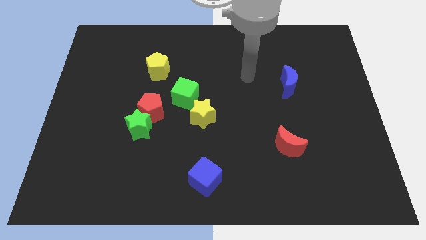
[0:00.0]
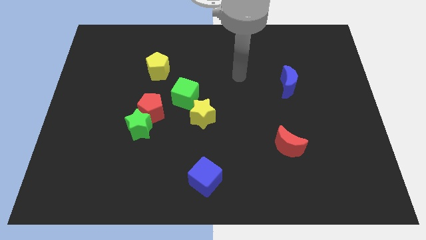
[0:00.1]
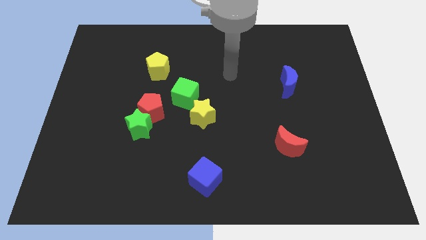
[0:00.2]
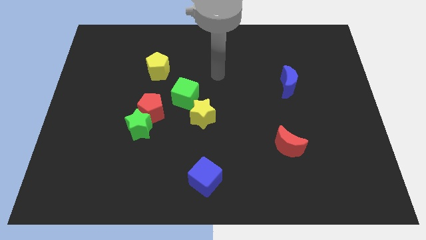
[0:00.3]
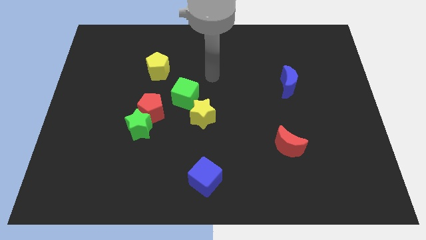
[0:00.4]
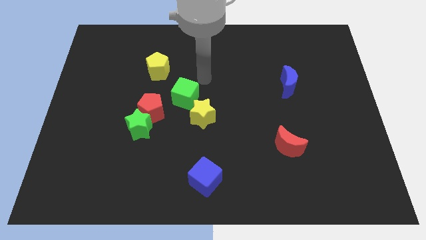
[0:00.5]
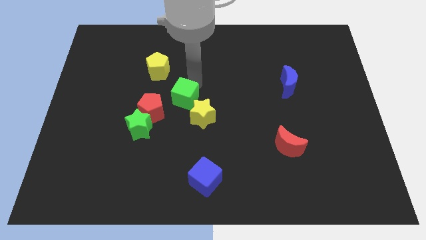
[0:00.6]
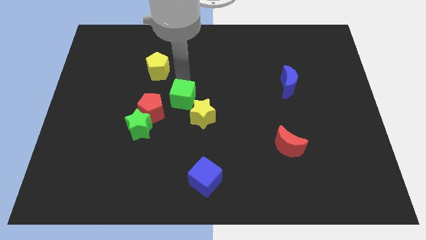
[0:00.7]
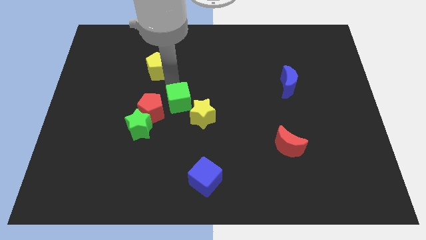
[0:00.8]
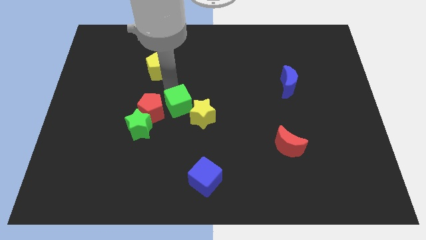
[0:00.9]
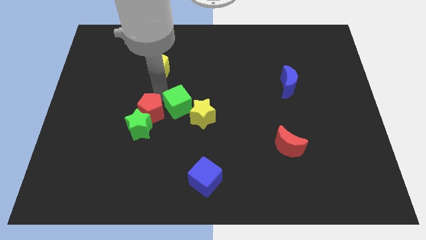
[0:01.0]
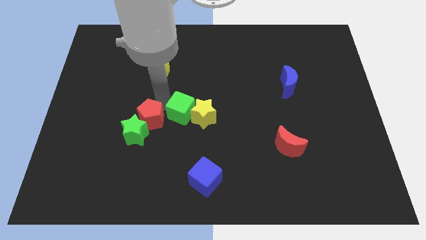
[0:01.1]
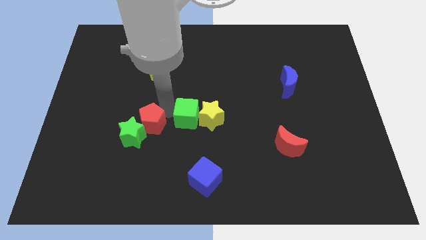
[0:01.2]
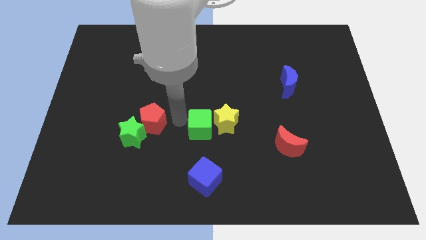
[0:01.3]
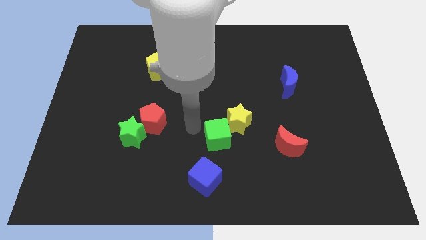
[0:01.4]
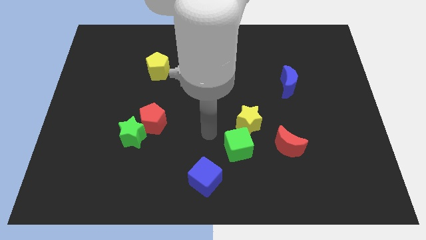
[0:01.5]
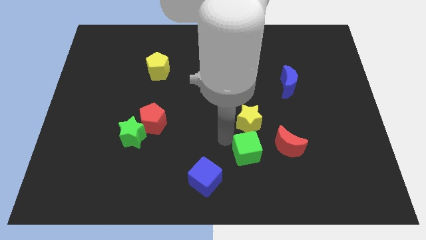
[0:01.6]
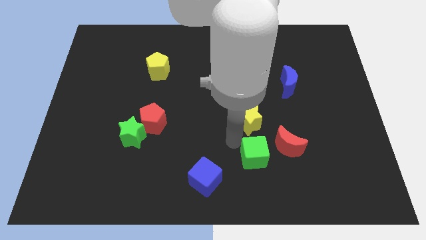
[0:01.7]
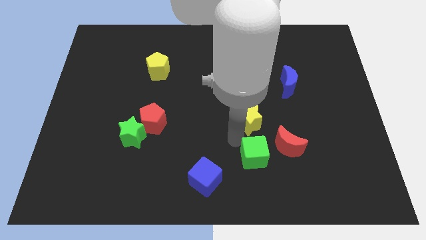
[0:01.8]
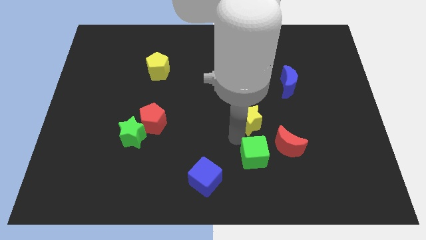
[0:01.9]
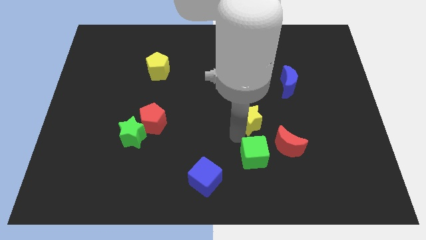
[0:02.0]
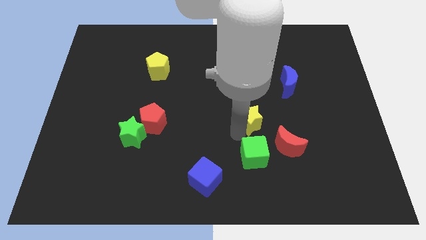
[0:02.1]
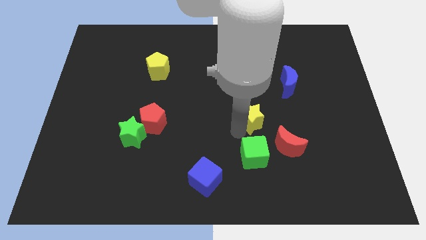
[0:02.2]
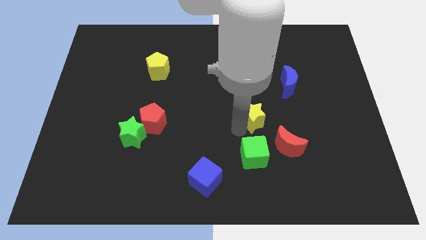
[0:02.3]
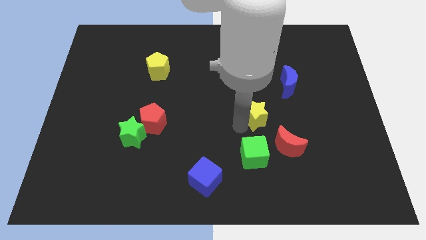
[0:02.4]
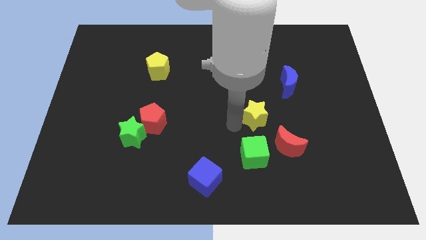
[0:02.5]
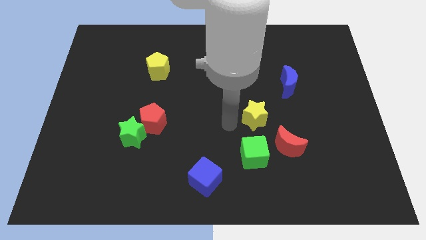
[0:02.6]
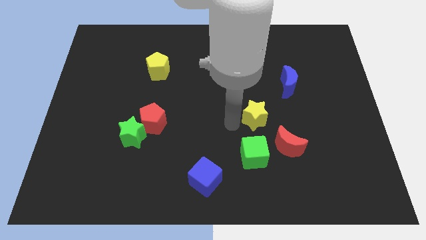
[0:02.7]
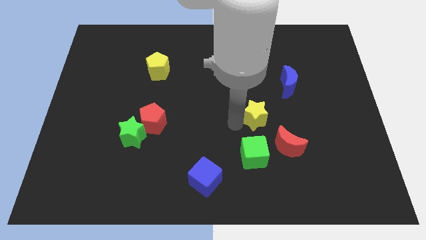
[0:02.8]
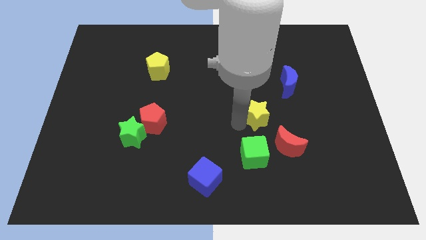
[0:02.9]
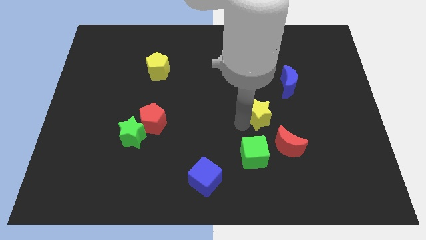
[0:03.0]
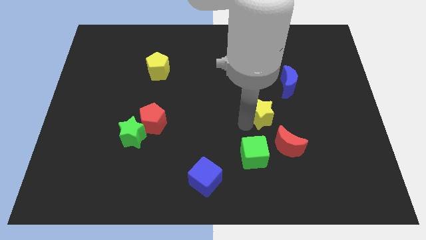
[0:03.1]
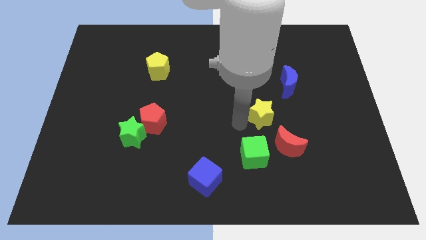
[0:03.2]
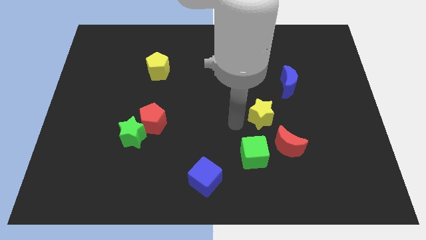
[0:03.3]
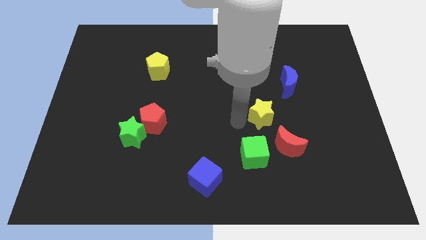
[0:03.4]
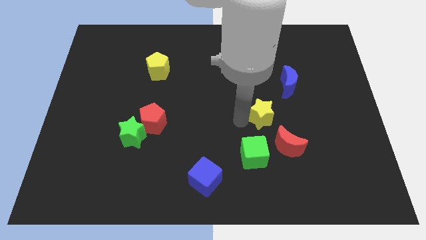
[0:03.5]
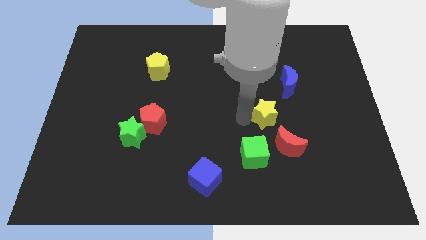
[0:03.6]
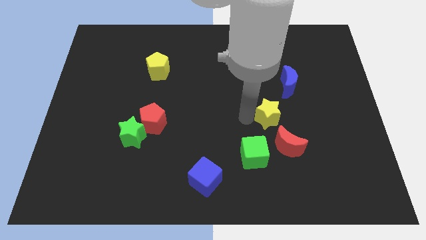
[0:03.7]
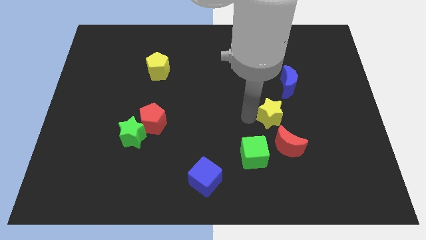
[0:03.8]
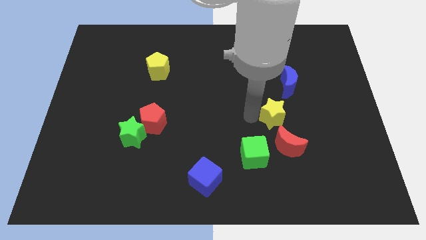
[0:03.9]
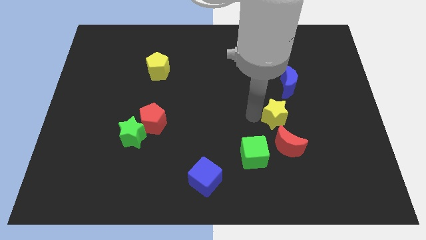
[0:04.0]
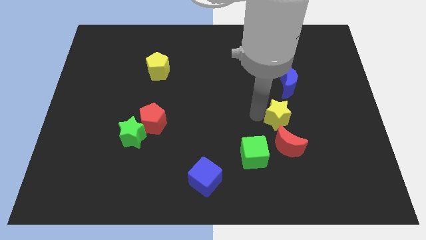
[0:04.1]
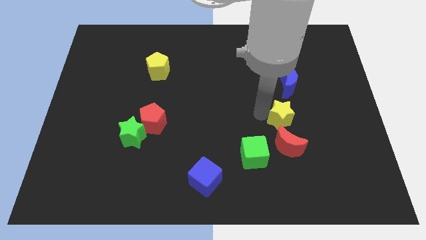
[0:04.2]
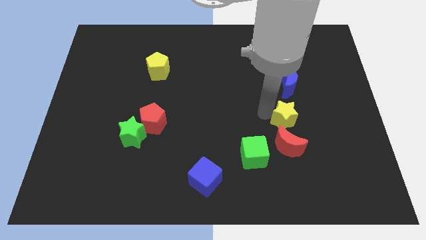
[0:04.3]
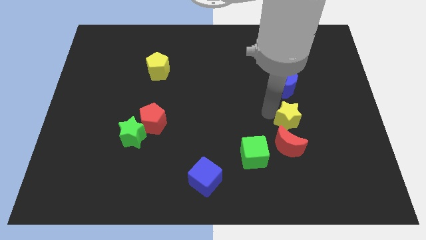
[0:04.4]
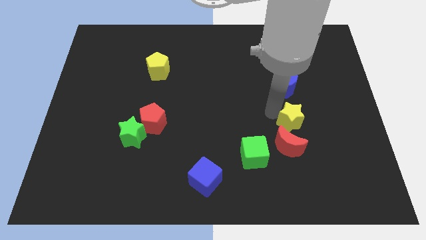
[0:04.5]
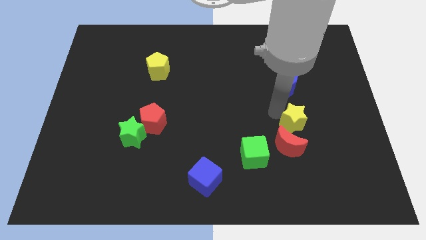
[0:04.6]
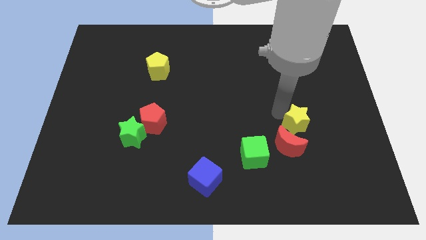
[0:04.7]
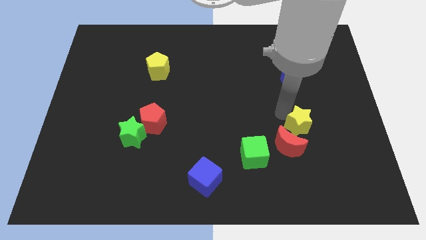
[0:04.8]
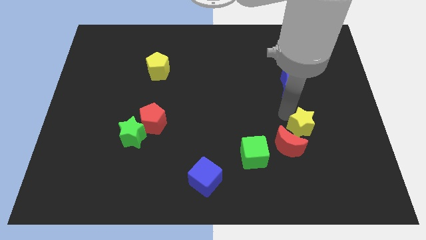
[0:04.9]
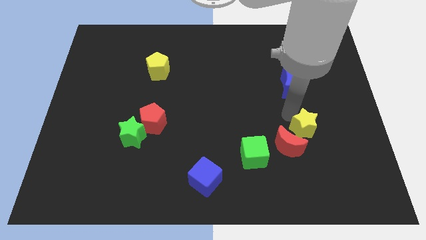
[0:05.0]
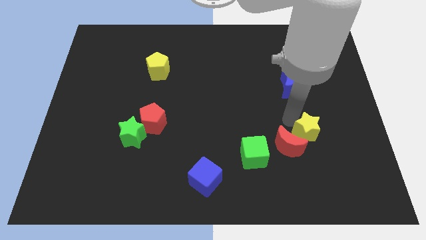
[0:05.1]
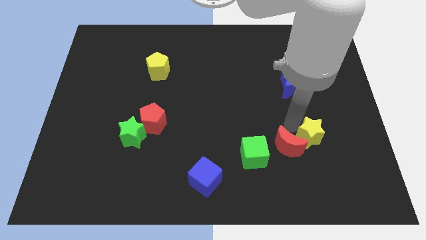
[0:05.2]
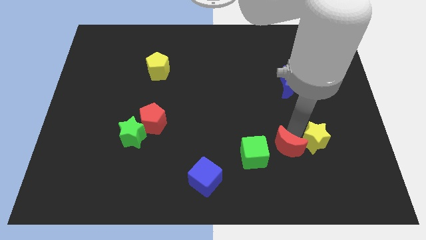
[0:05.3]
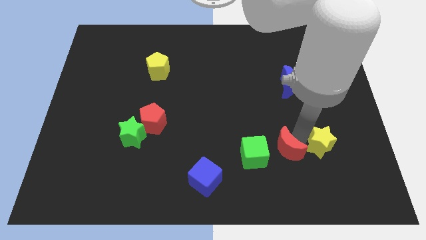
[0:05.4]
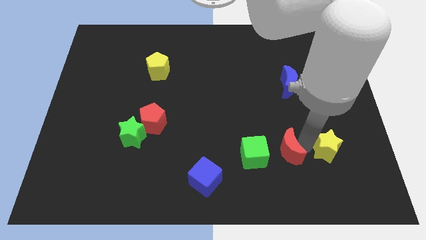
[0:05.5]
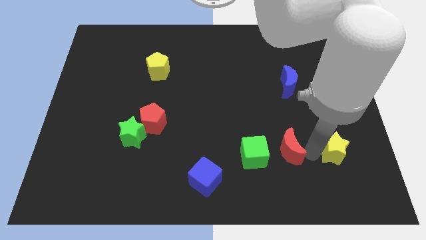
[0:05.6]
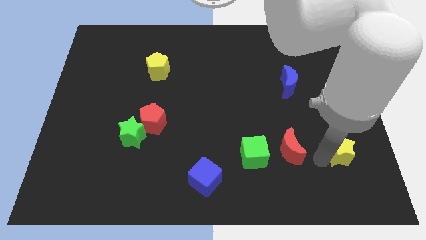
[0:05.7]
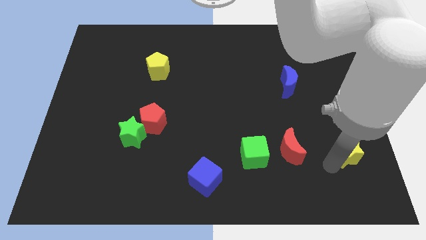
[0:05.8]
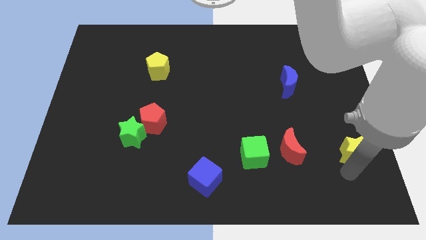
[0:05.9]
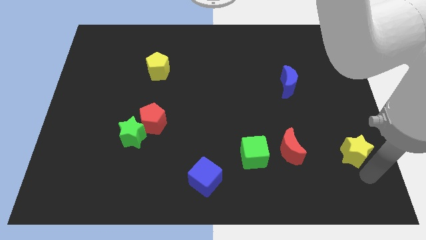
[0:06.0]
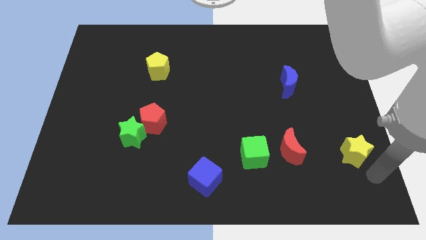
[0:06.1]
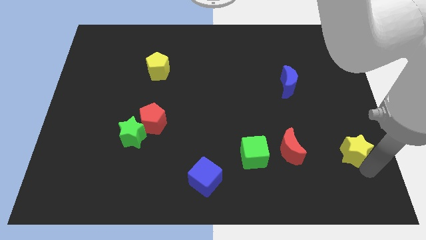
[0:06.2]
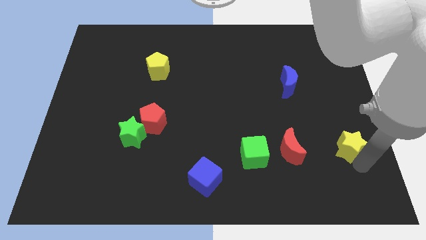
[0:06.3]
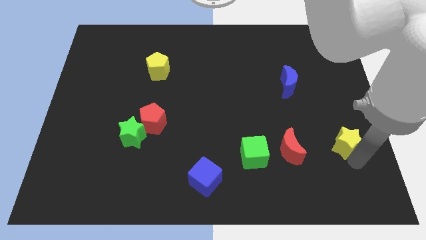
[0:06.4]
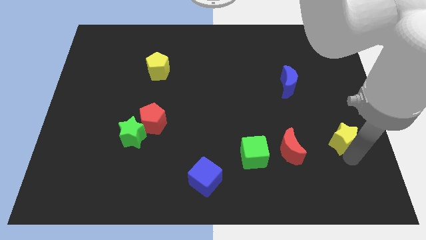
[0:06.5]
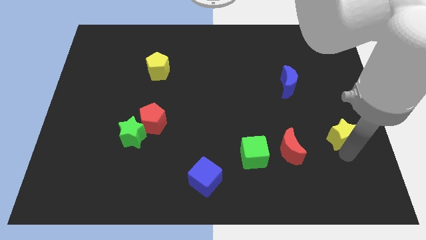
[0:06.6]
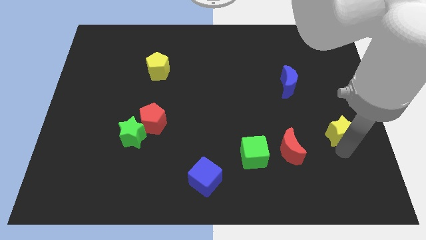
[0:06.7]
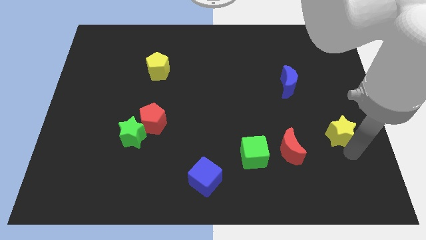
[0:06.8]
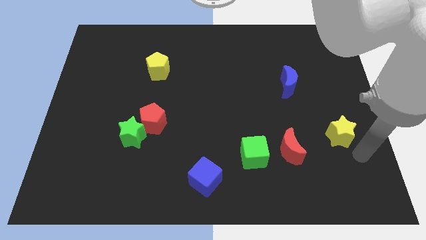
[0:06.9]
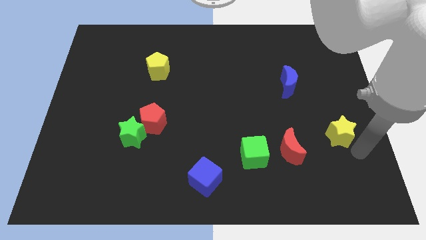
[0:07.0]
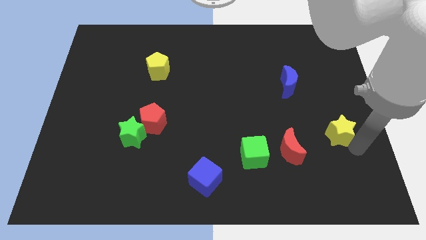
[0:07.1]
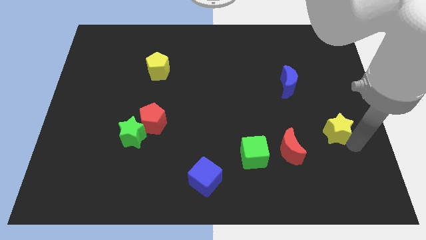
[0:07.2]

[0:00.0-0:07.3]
push the yellow star to the center right
